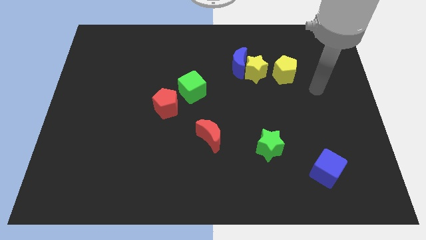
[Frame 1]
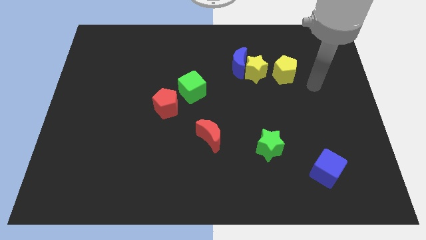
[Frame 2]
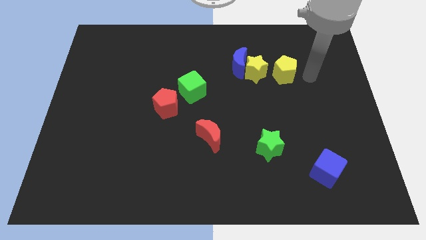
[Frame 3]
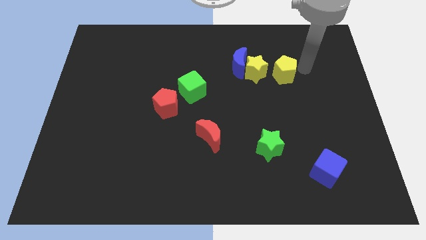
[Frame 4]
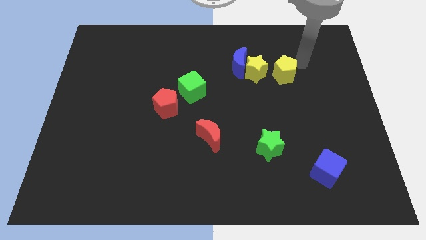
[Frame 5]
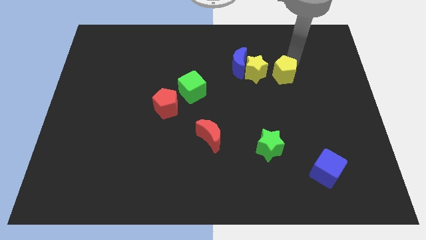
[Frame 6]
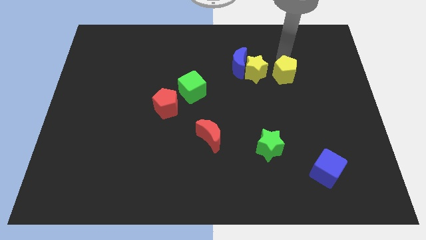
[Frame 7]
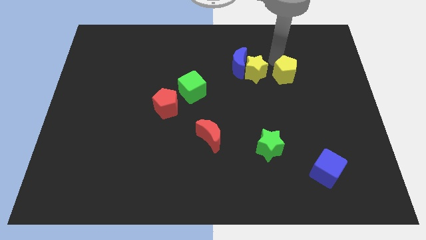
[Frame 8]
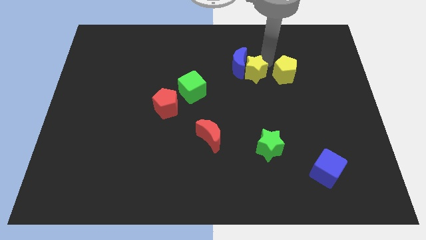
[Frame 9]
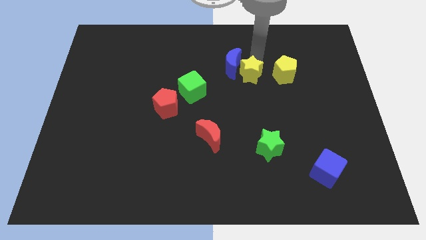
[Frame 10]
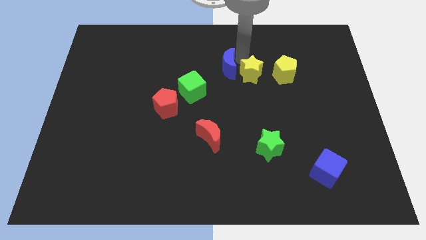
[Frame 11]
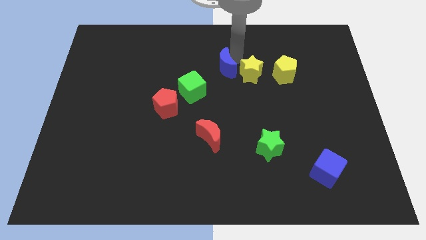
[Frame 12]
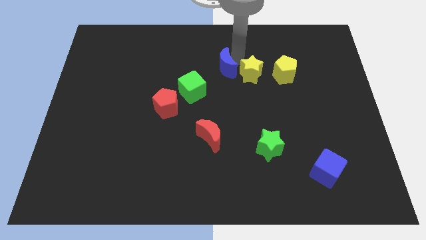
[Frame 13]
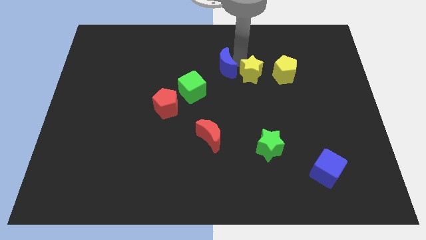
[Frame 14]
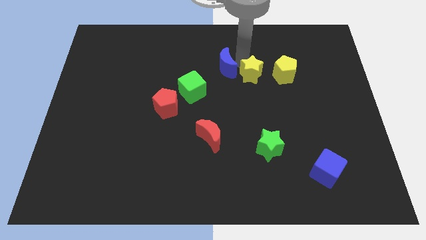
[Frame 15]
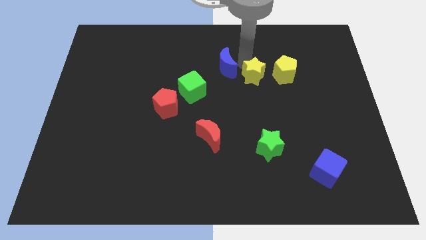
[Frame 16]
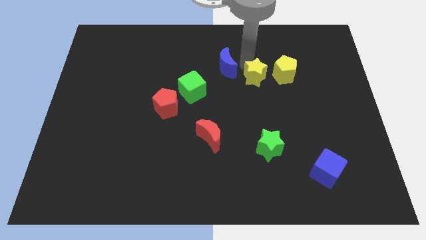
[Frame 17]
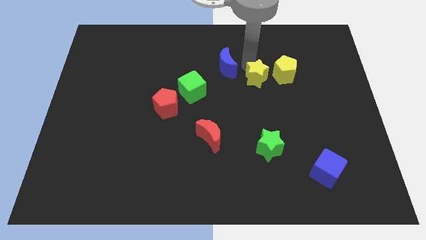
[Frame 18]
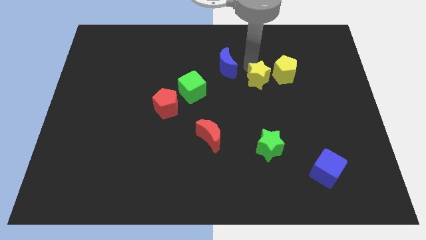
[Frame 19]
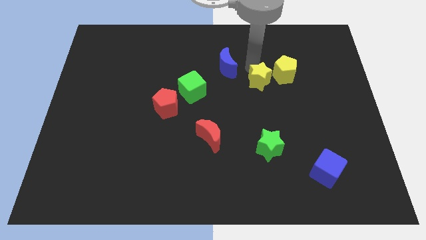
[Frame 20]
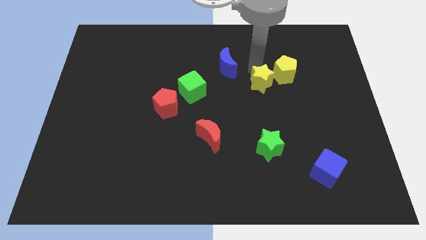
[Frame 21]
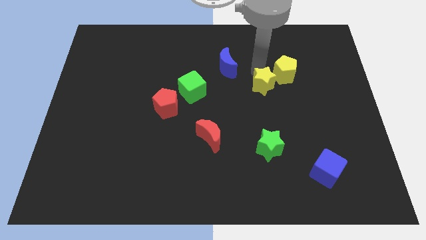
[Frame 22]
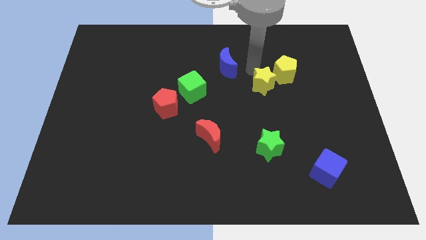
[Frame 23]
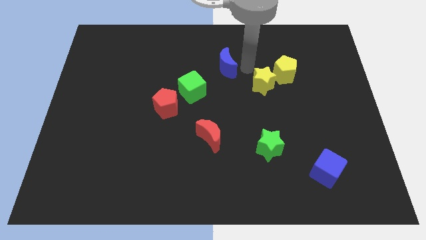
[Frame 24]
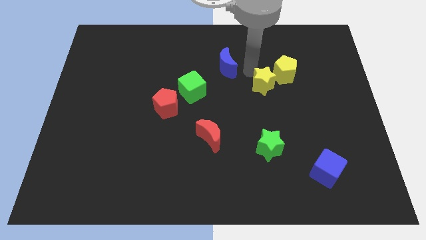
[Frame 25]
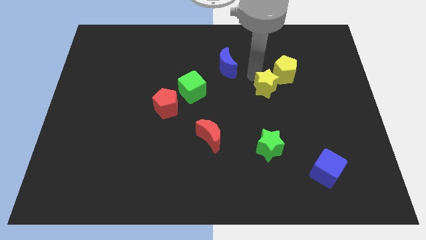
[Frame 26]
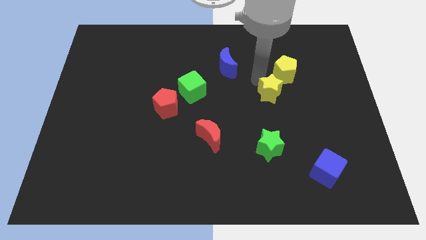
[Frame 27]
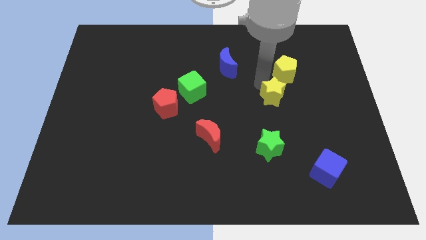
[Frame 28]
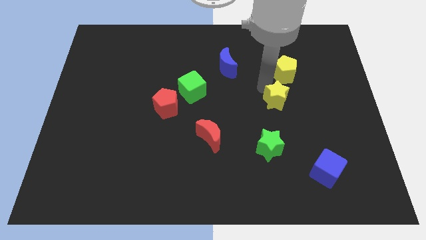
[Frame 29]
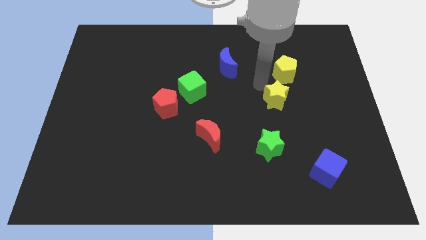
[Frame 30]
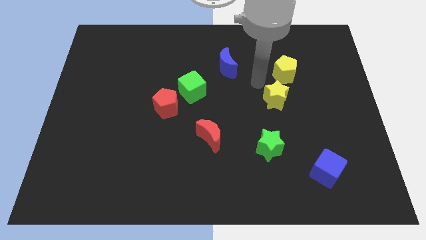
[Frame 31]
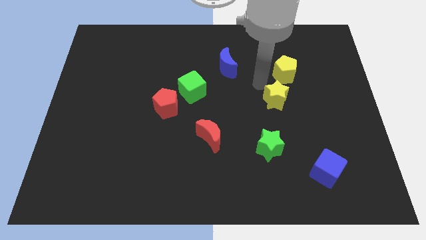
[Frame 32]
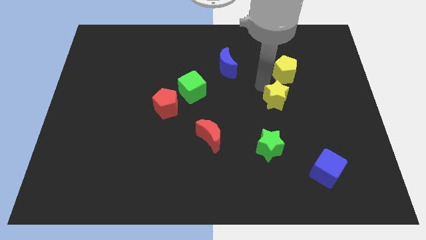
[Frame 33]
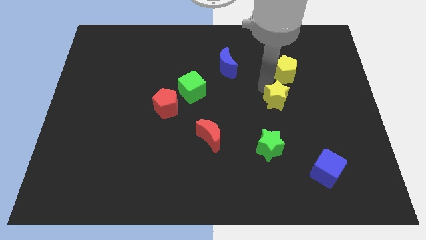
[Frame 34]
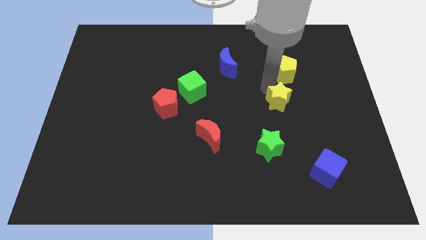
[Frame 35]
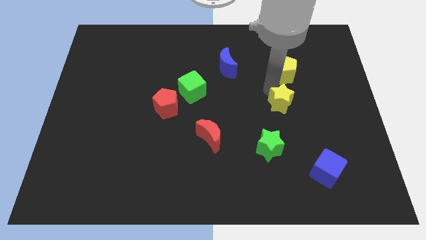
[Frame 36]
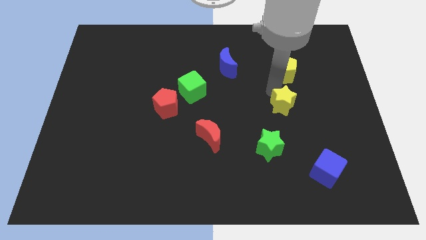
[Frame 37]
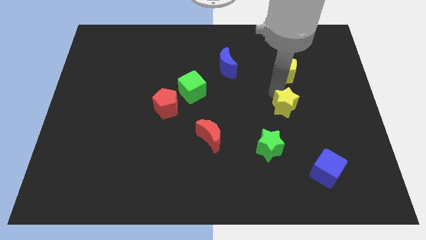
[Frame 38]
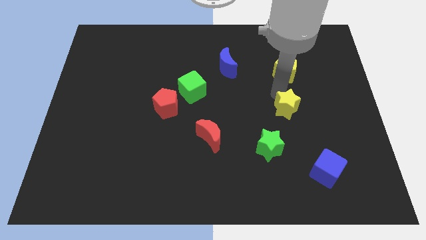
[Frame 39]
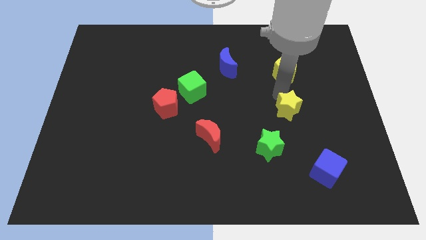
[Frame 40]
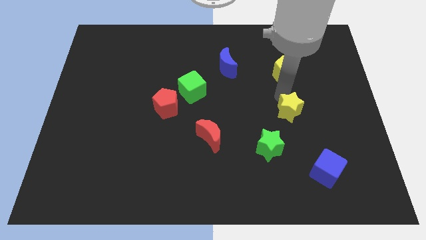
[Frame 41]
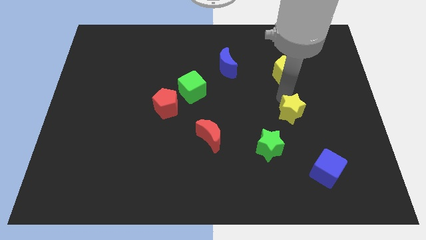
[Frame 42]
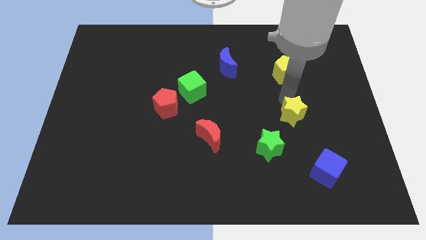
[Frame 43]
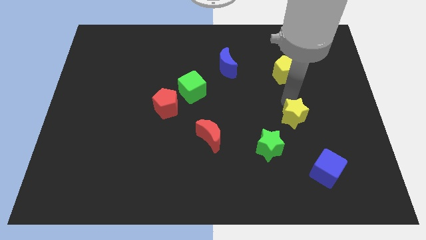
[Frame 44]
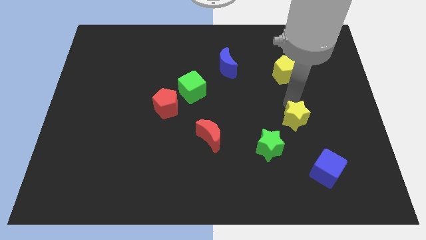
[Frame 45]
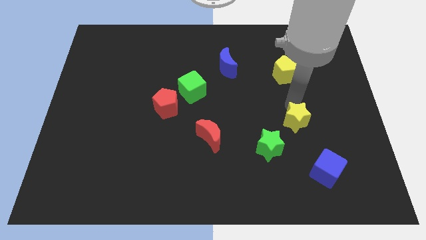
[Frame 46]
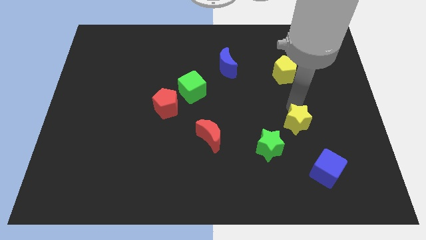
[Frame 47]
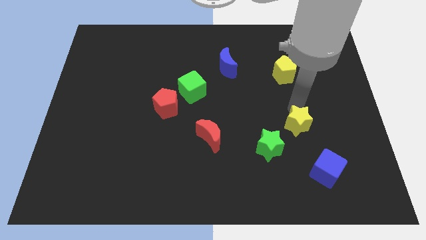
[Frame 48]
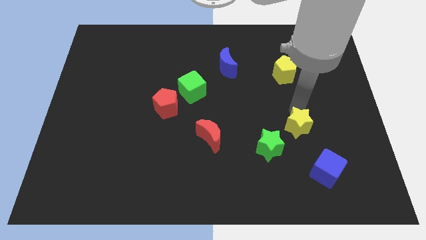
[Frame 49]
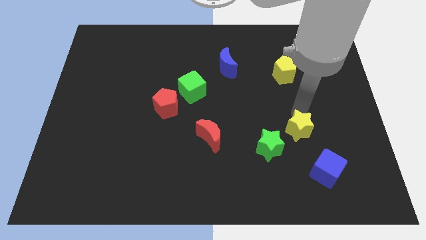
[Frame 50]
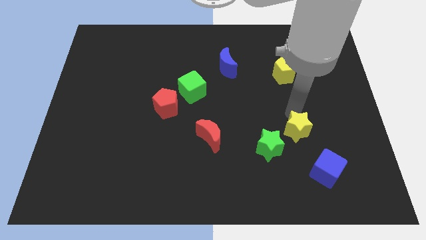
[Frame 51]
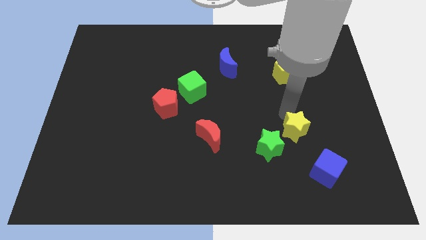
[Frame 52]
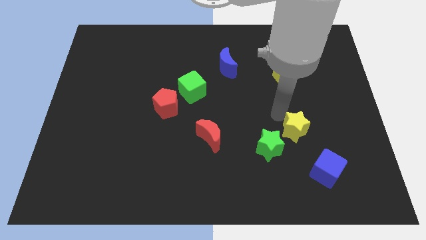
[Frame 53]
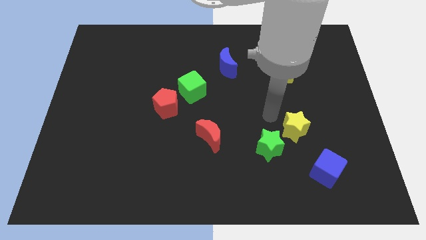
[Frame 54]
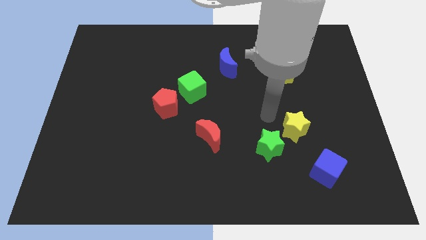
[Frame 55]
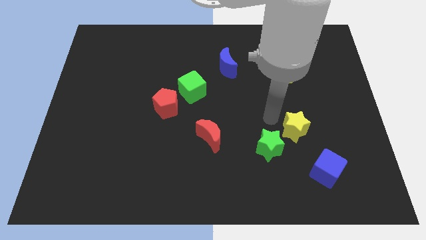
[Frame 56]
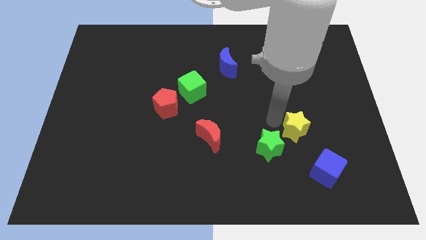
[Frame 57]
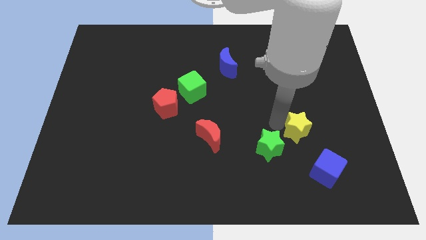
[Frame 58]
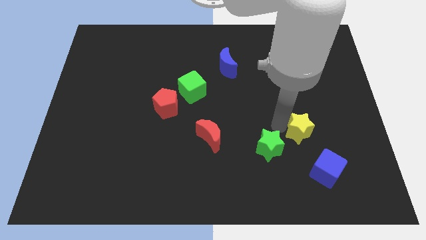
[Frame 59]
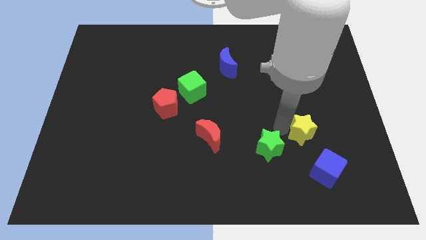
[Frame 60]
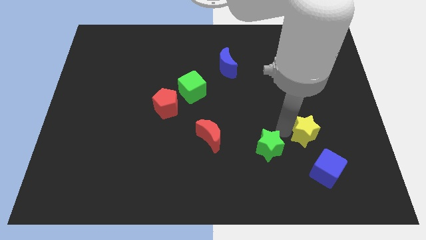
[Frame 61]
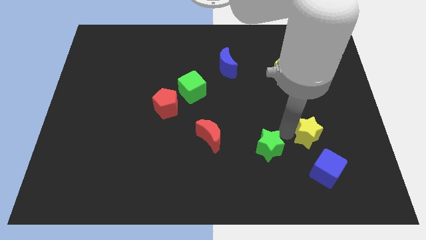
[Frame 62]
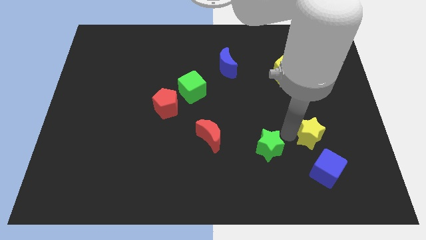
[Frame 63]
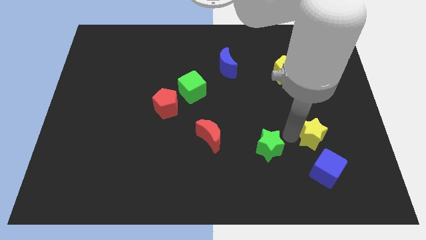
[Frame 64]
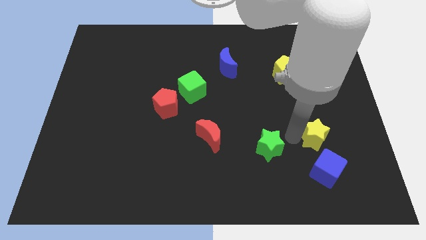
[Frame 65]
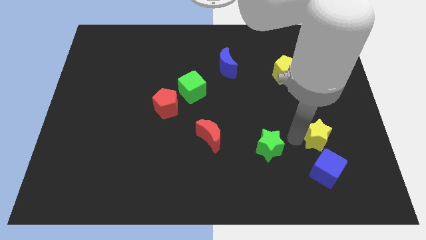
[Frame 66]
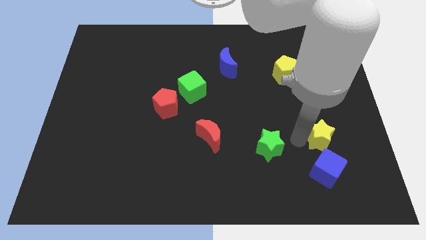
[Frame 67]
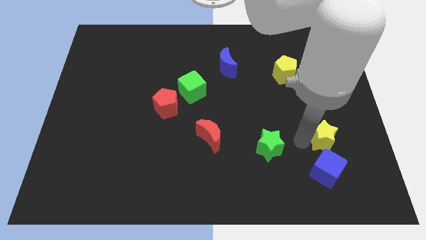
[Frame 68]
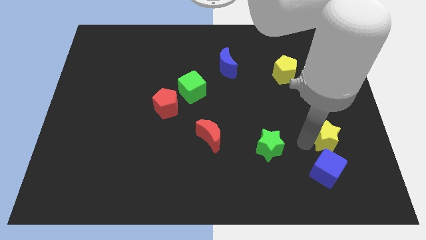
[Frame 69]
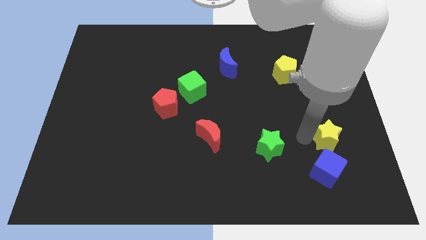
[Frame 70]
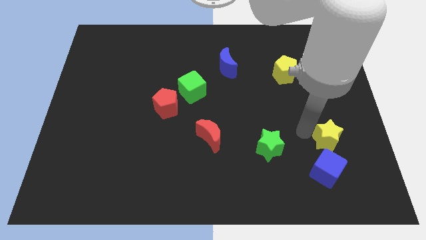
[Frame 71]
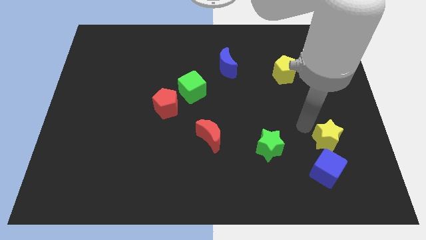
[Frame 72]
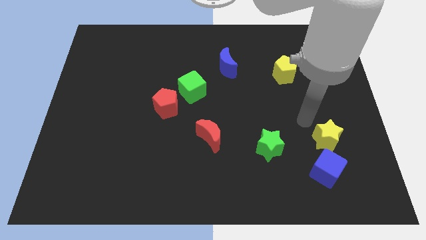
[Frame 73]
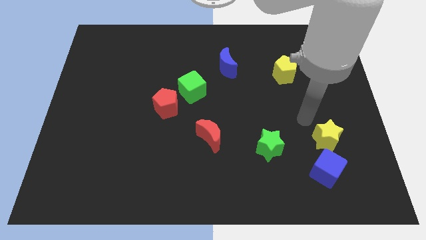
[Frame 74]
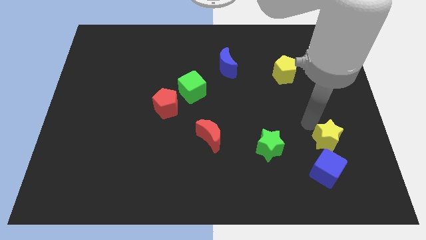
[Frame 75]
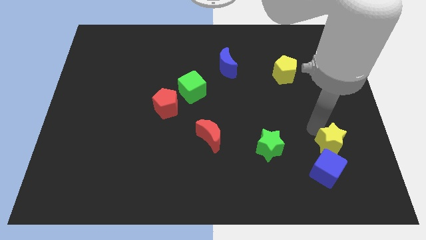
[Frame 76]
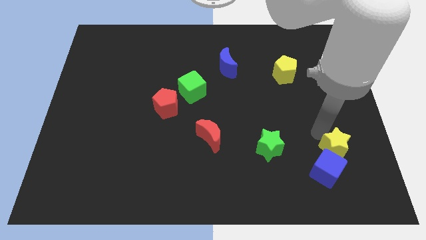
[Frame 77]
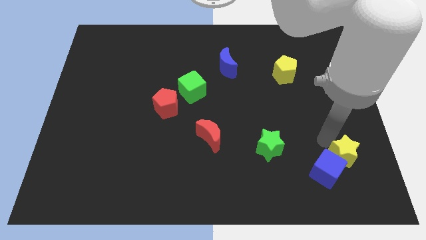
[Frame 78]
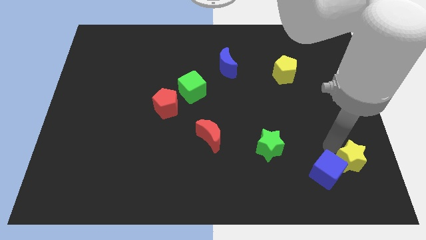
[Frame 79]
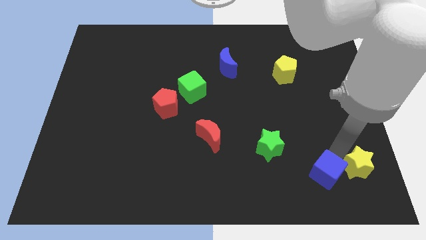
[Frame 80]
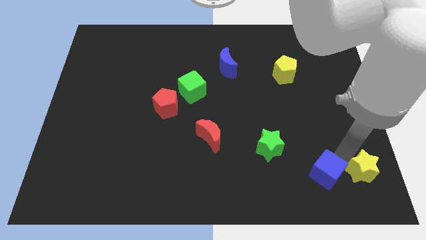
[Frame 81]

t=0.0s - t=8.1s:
move the yellow star to the bottom right corner
